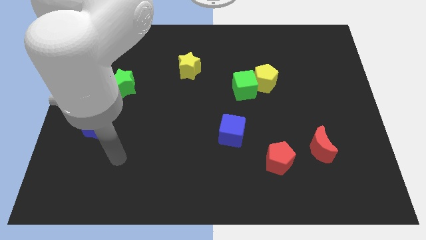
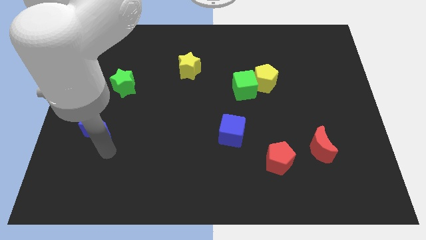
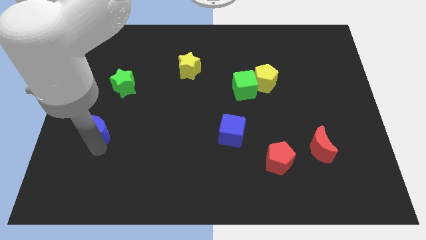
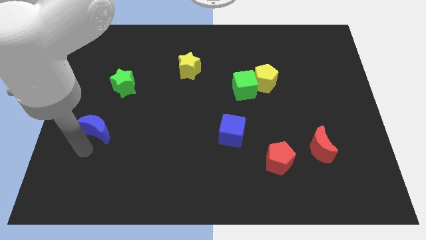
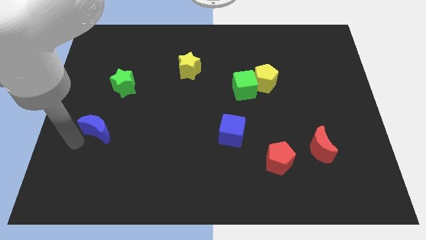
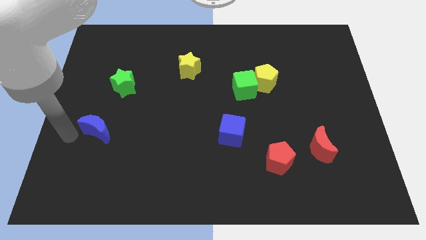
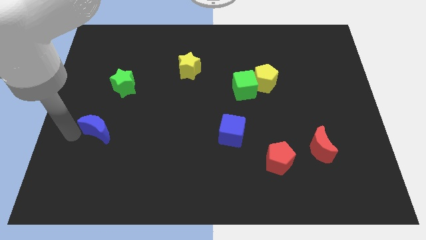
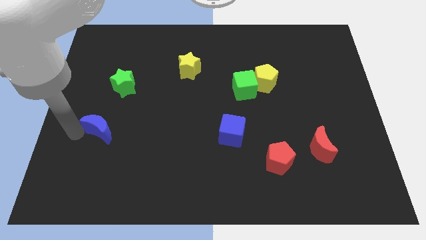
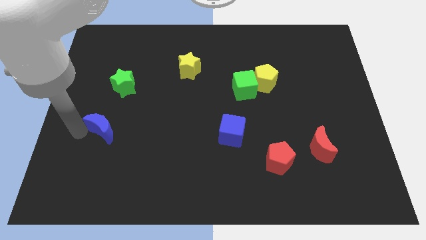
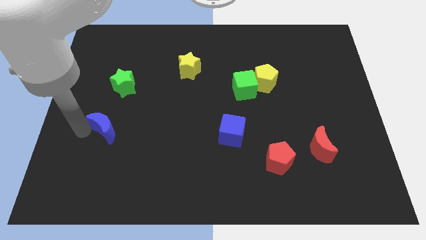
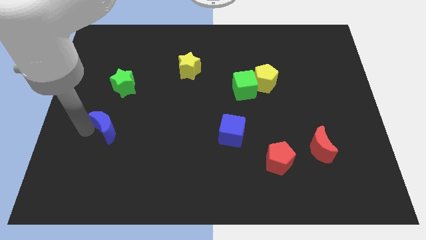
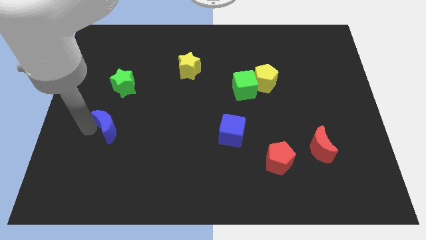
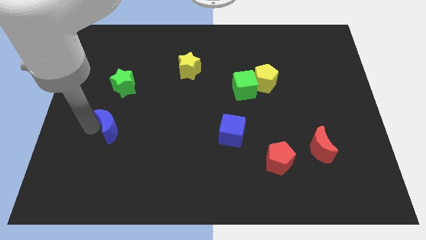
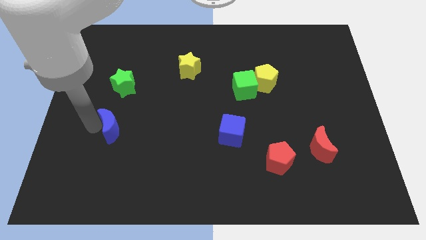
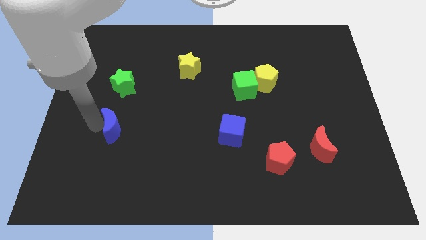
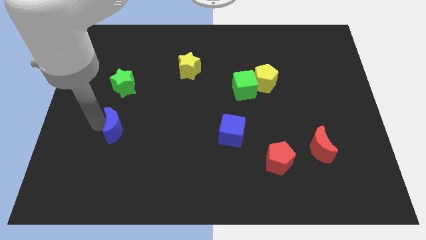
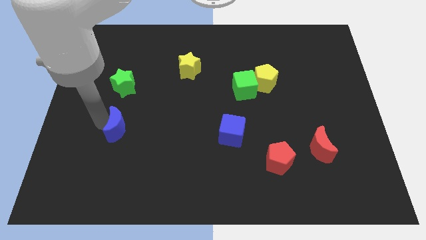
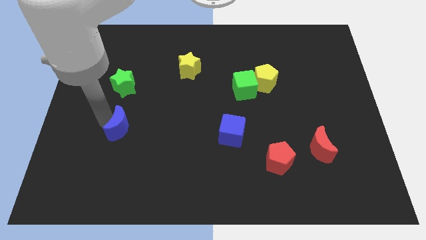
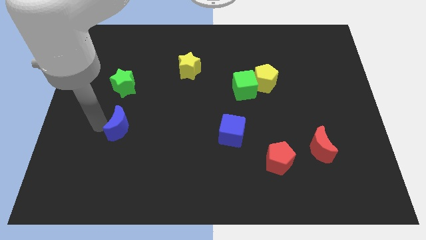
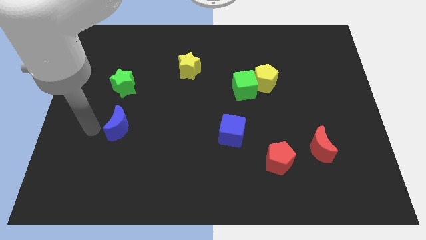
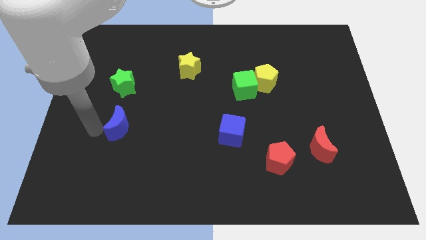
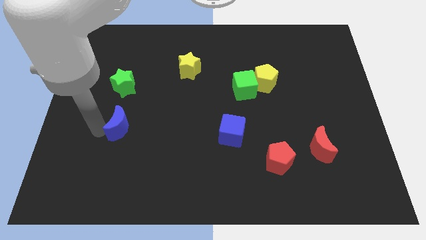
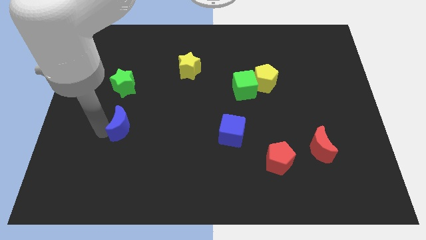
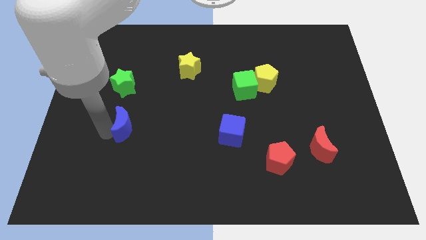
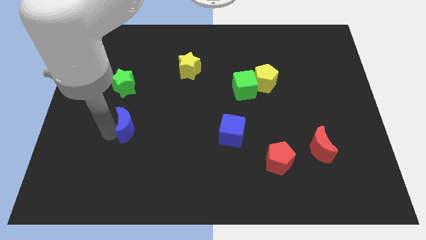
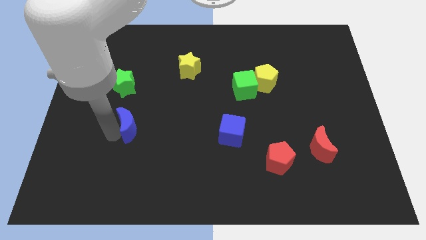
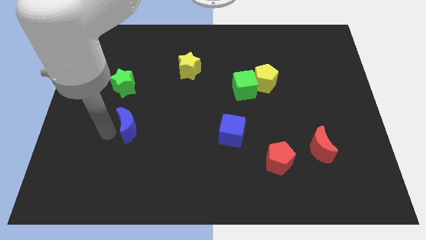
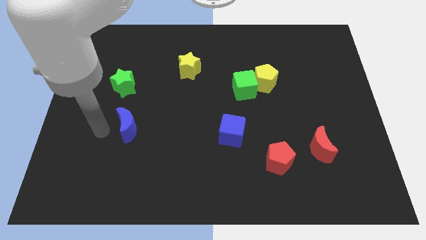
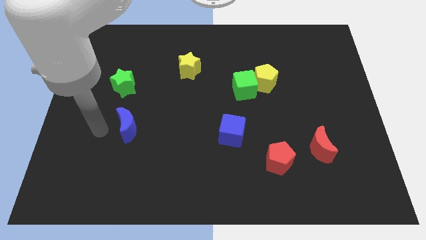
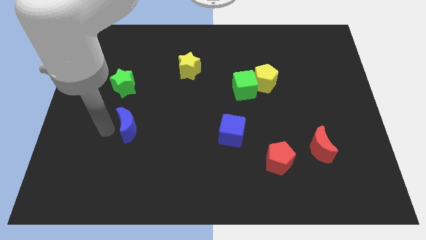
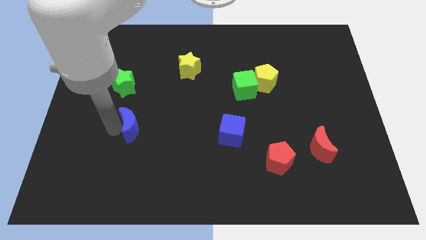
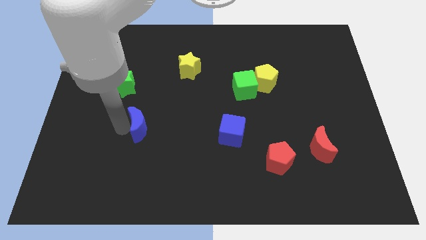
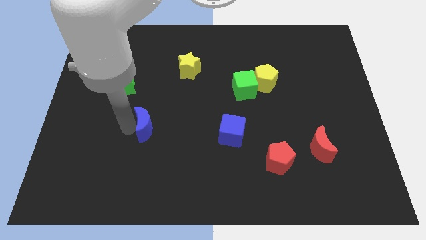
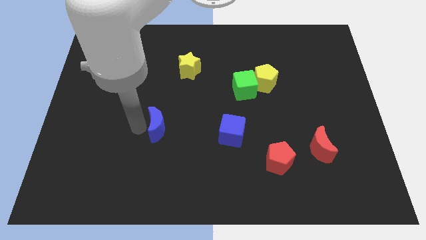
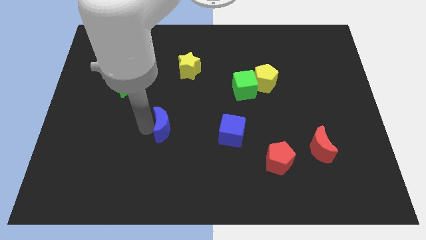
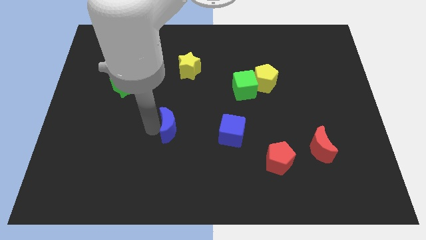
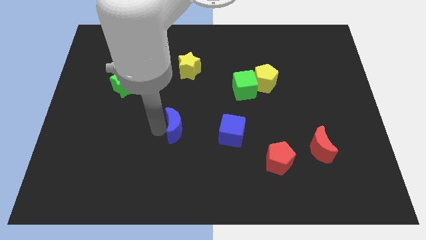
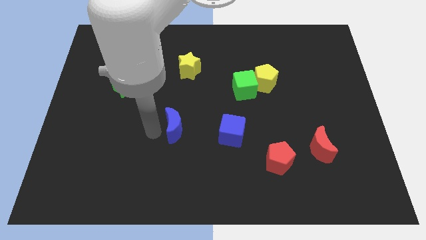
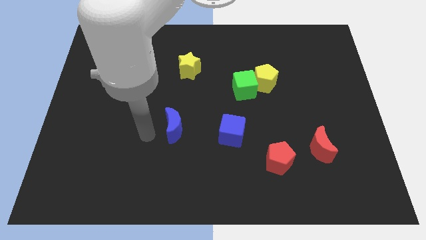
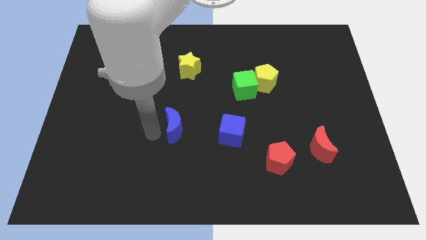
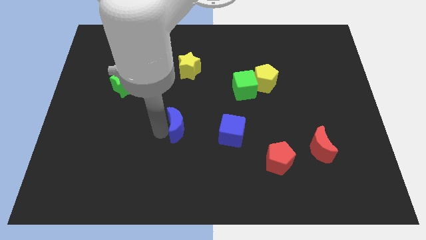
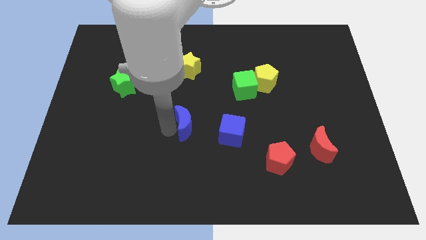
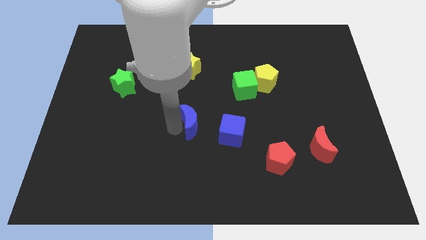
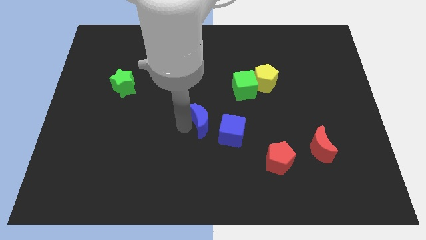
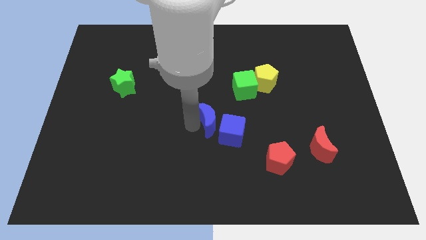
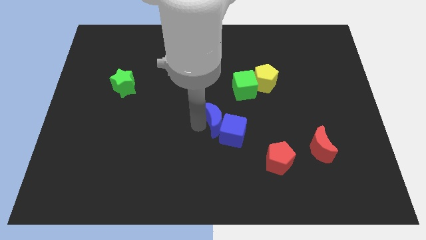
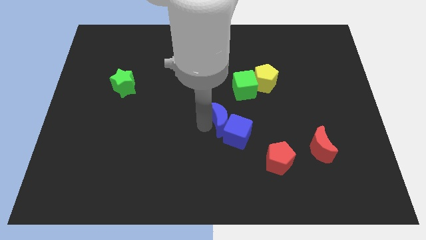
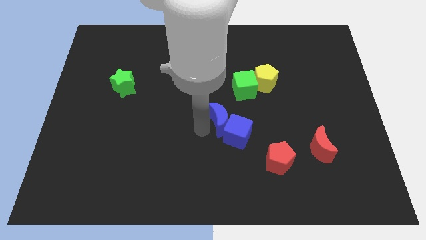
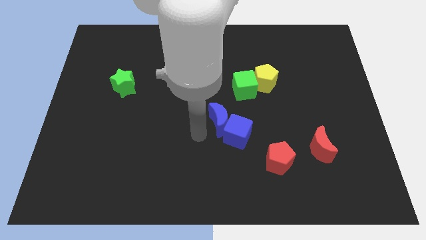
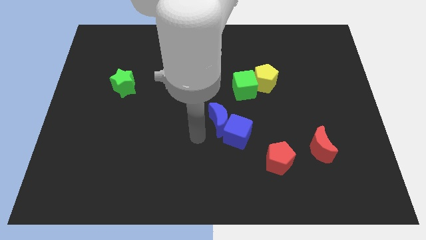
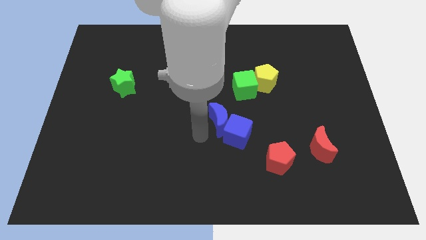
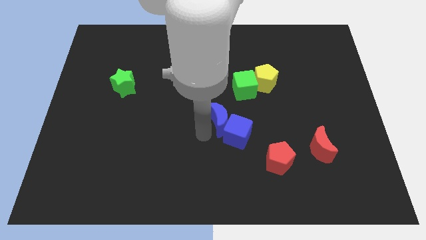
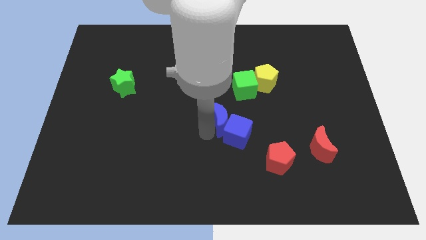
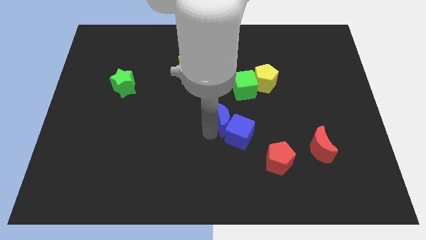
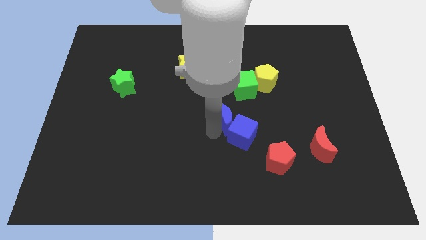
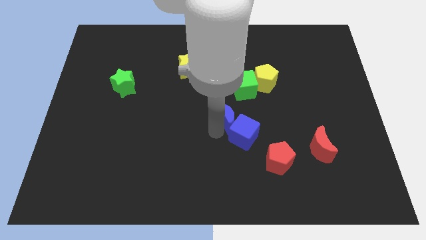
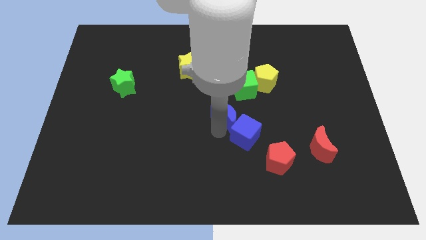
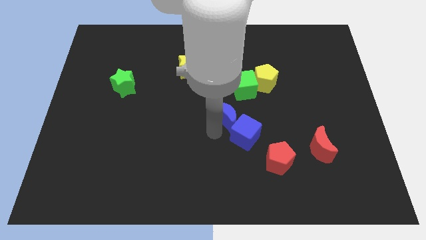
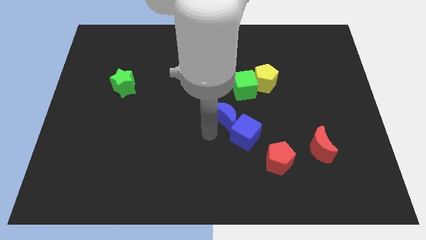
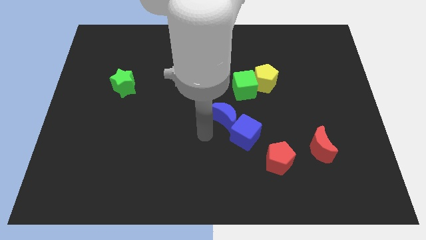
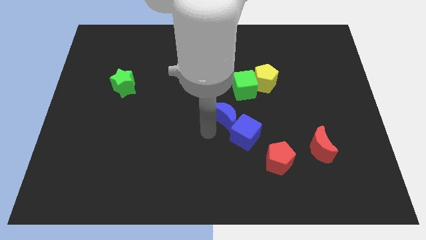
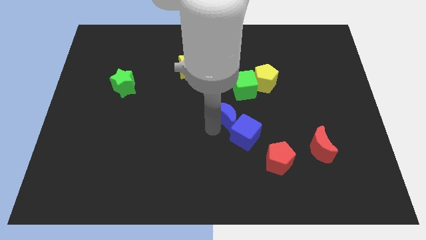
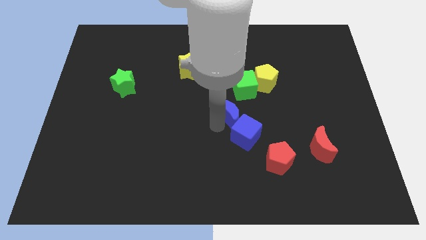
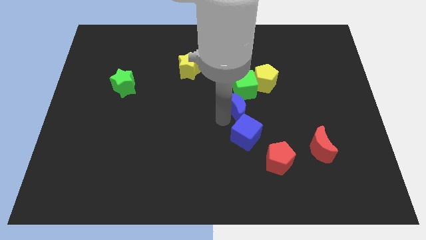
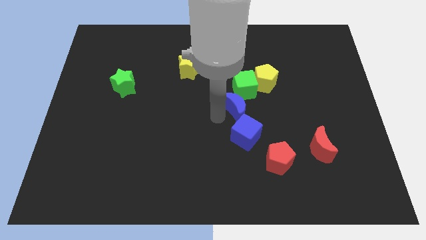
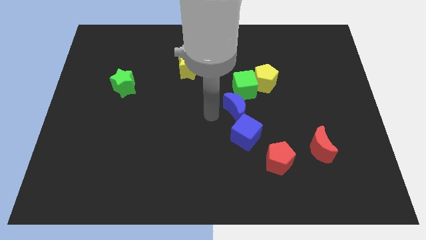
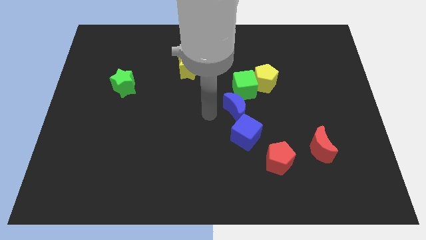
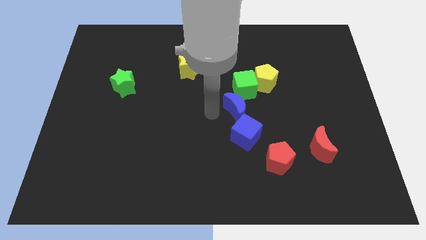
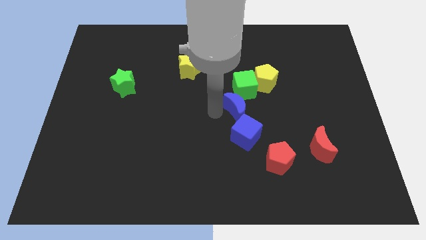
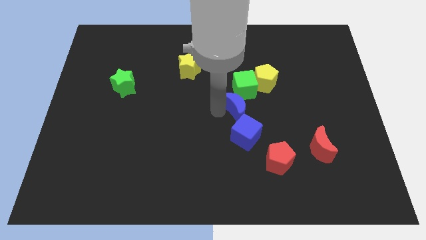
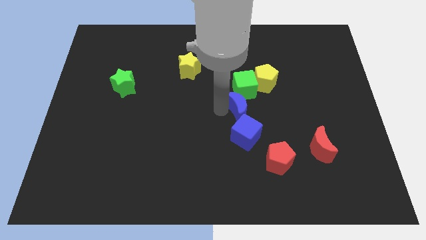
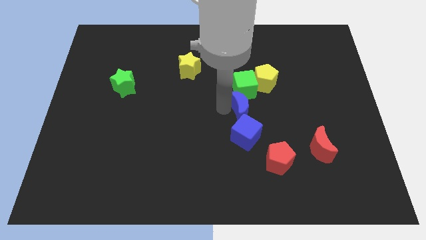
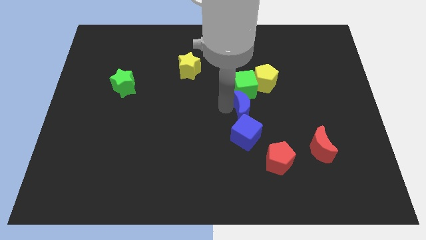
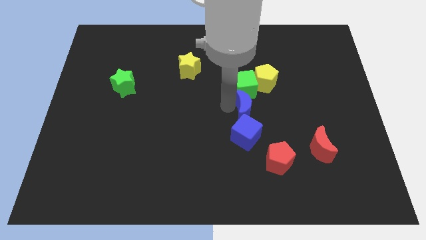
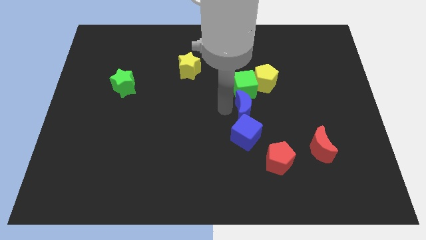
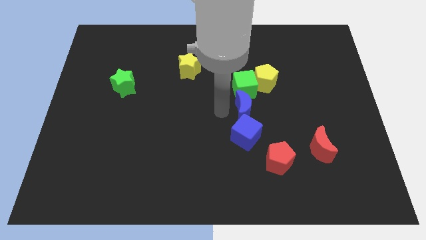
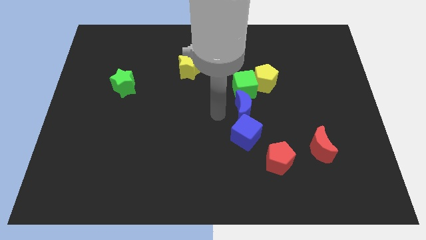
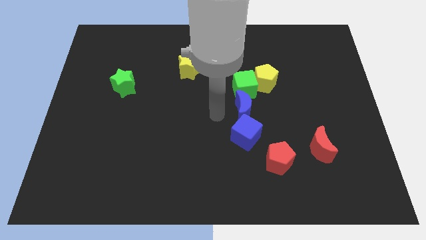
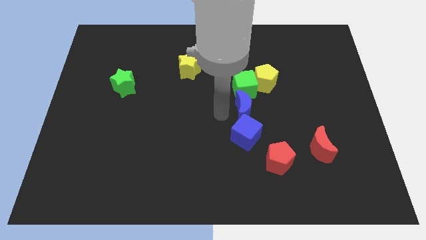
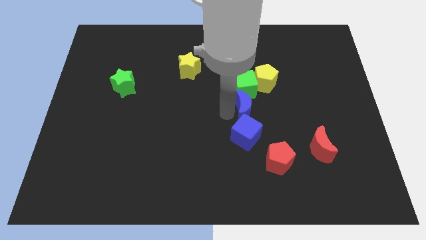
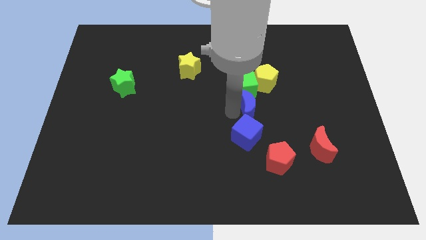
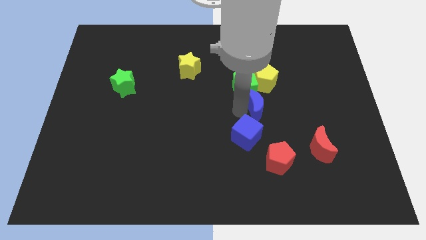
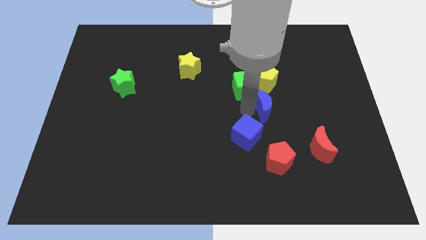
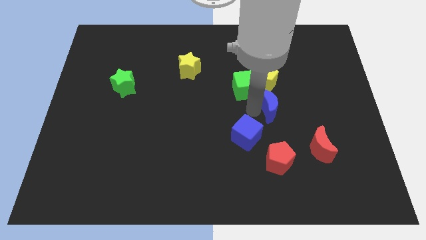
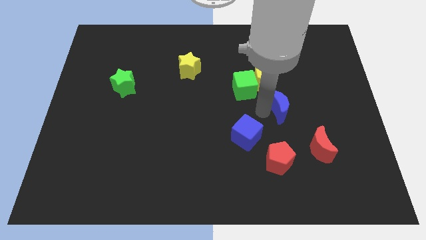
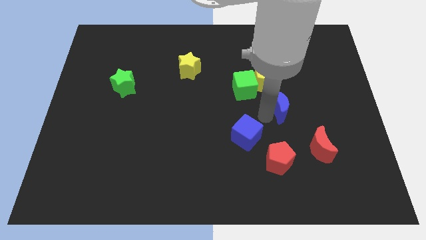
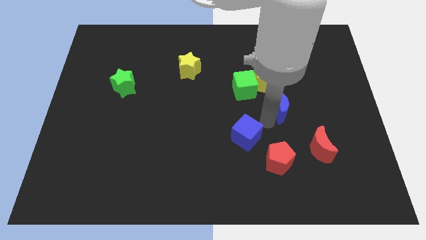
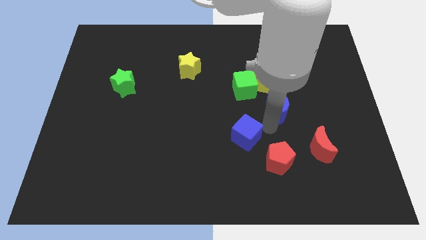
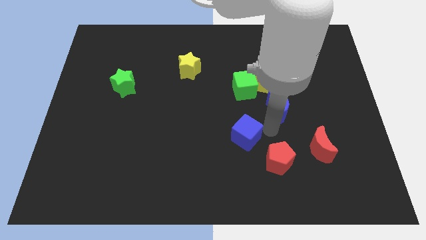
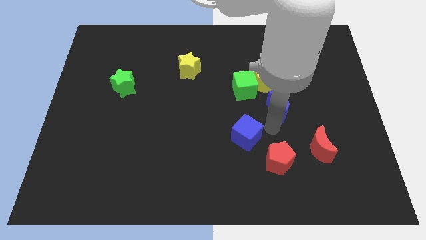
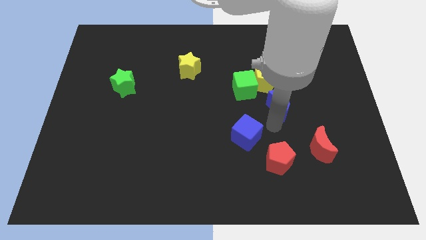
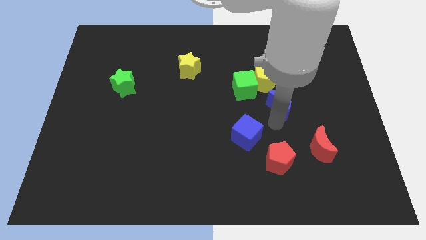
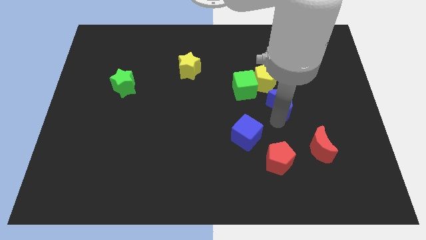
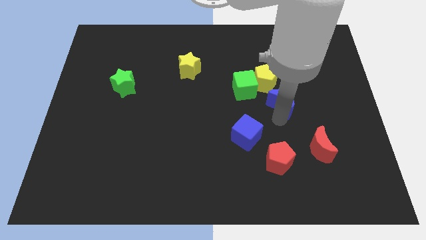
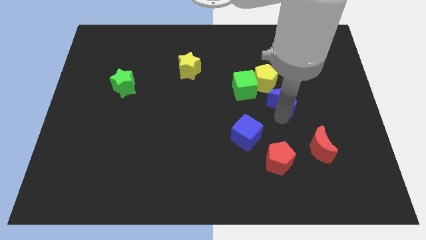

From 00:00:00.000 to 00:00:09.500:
push the blue moon just right of the green cube
